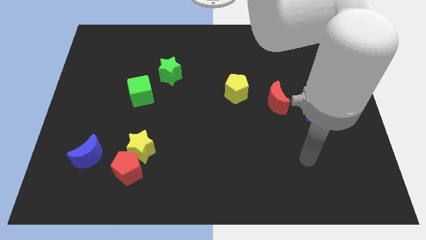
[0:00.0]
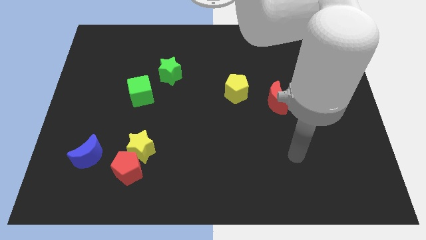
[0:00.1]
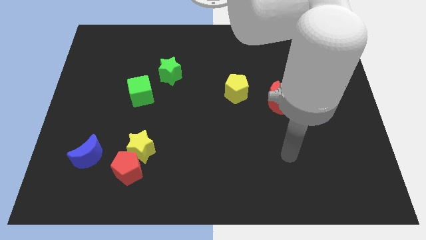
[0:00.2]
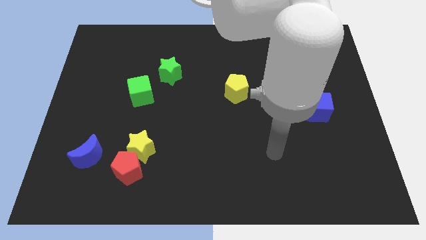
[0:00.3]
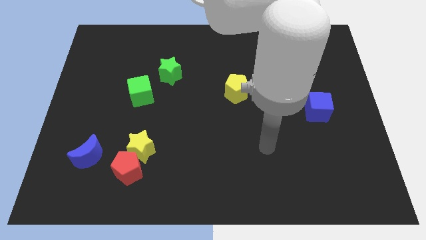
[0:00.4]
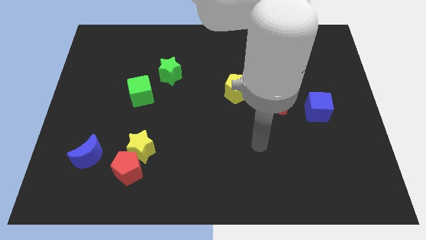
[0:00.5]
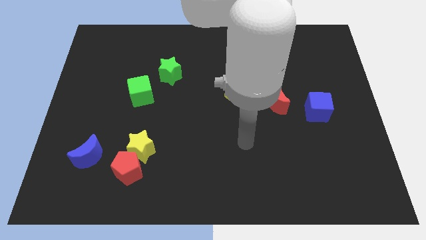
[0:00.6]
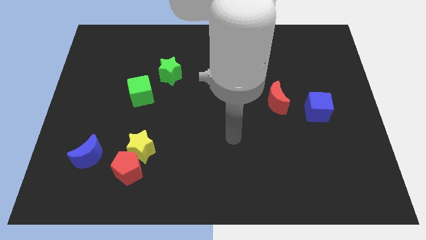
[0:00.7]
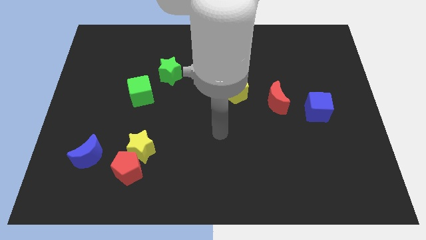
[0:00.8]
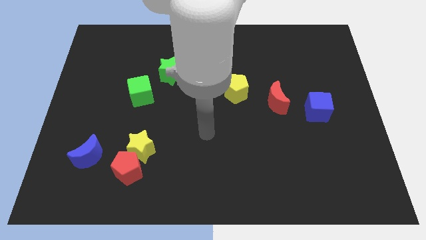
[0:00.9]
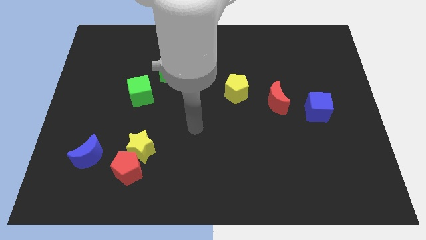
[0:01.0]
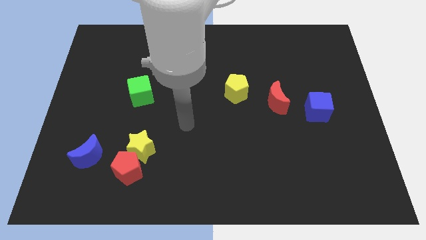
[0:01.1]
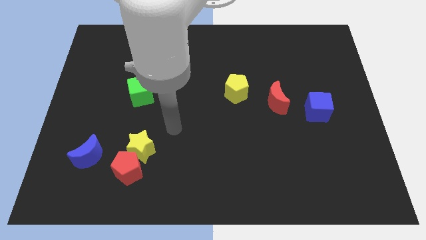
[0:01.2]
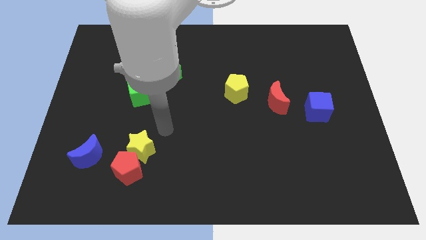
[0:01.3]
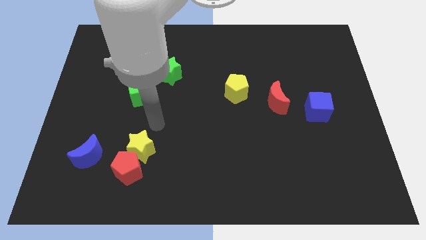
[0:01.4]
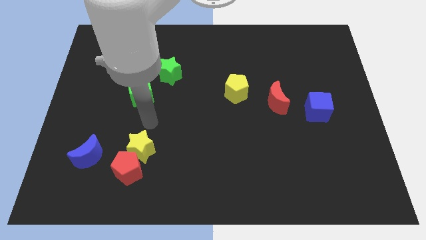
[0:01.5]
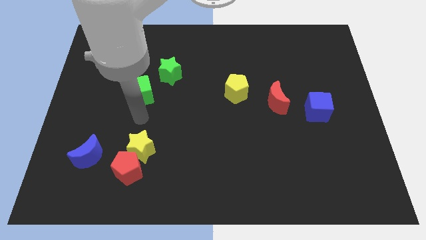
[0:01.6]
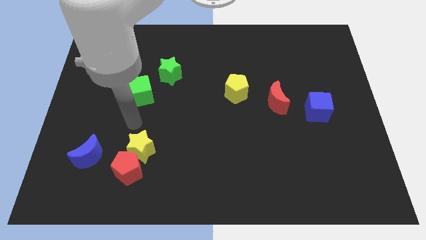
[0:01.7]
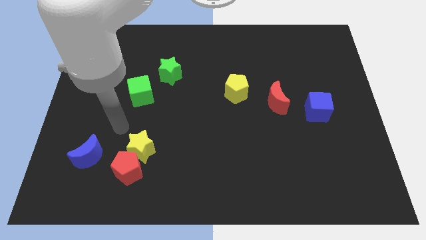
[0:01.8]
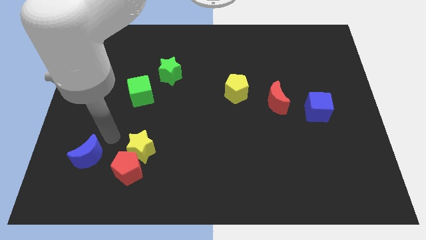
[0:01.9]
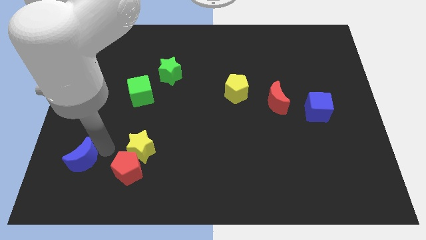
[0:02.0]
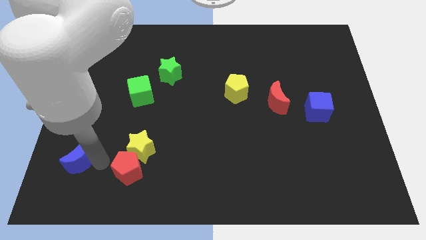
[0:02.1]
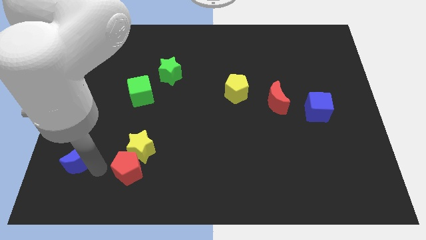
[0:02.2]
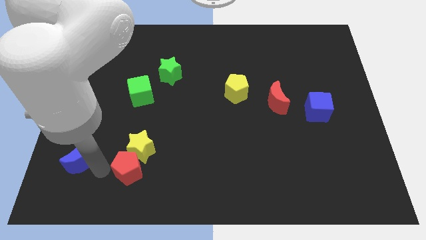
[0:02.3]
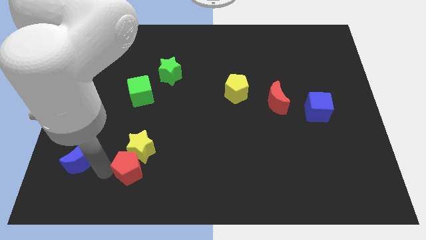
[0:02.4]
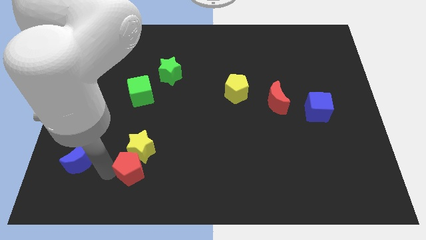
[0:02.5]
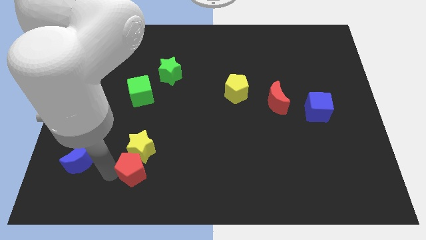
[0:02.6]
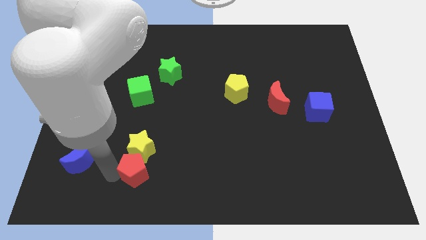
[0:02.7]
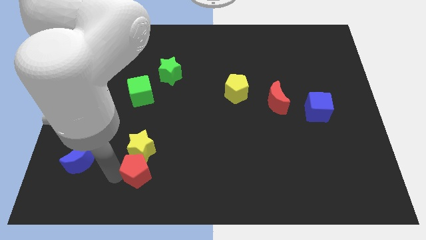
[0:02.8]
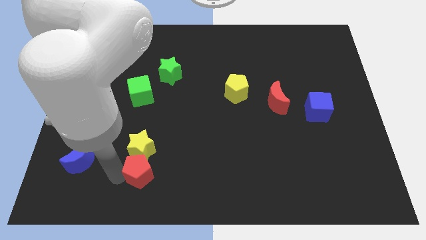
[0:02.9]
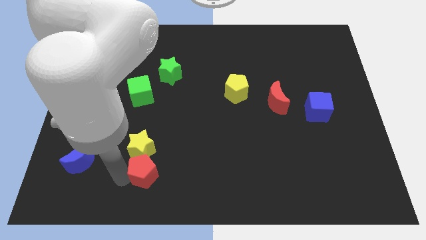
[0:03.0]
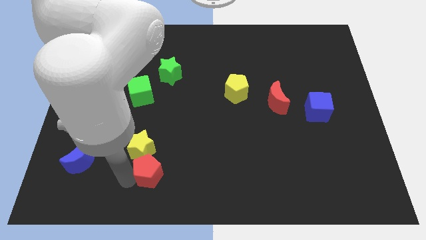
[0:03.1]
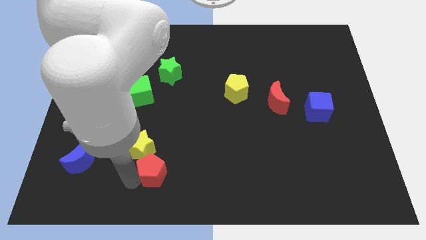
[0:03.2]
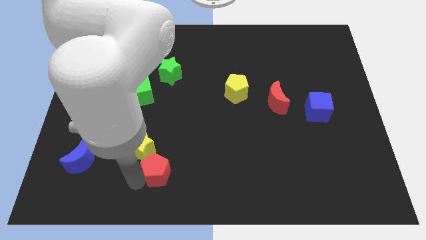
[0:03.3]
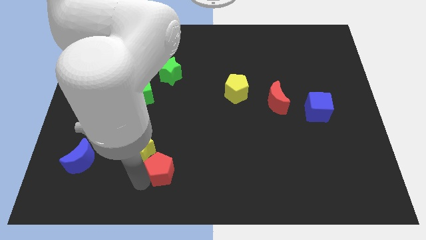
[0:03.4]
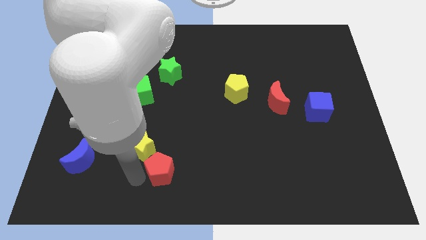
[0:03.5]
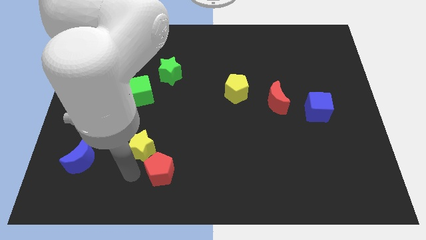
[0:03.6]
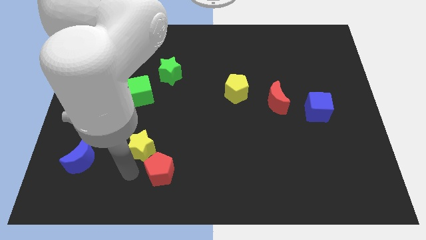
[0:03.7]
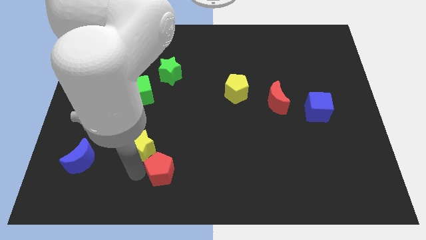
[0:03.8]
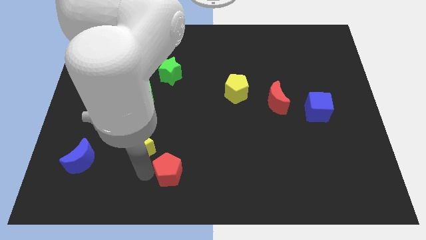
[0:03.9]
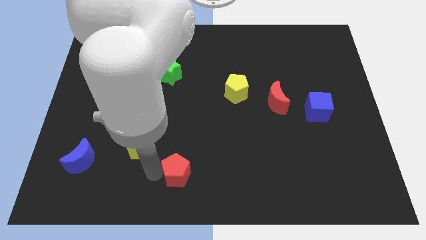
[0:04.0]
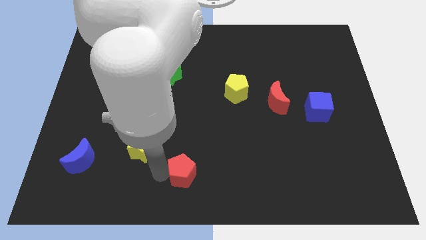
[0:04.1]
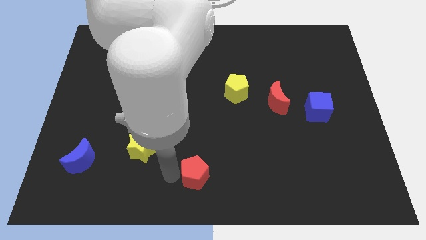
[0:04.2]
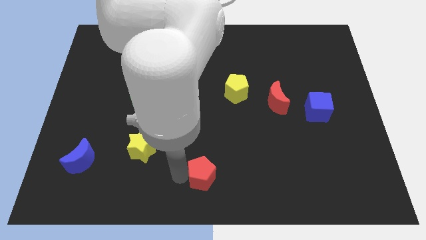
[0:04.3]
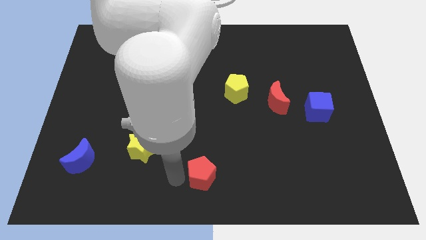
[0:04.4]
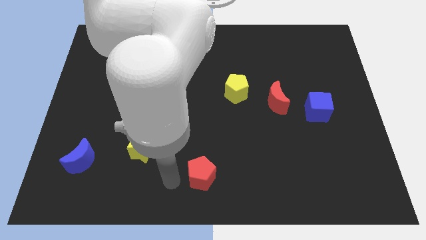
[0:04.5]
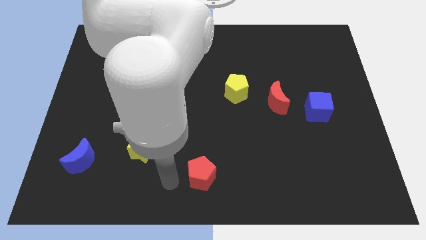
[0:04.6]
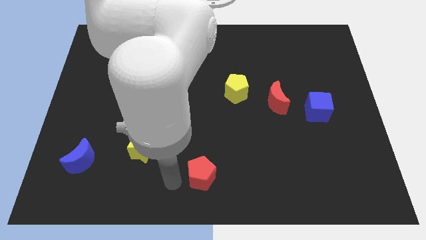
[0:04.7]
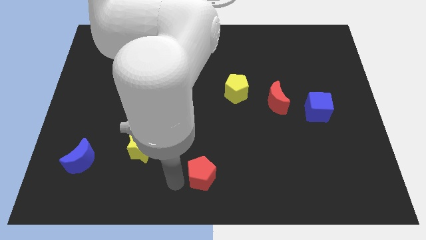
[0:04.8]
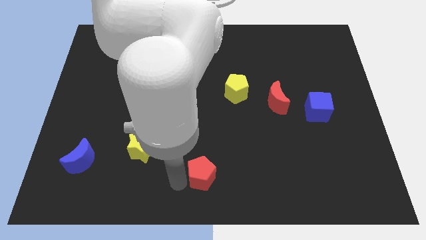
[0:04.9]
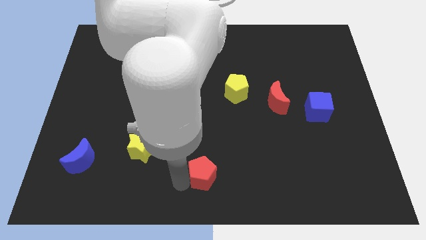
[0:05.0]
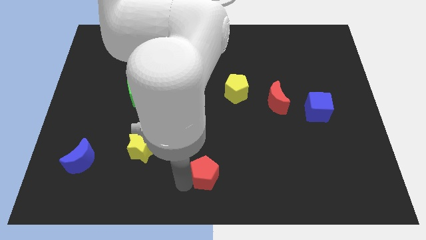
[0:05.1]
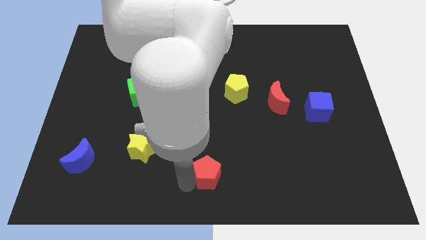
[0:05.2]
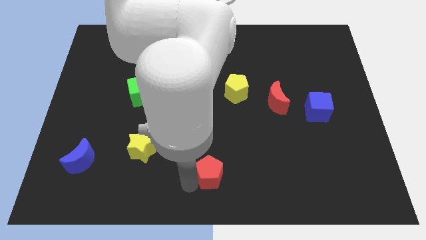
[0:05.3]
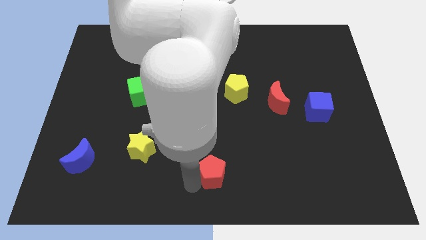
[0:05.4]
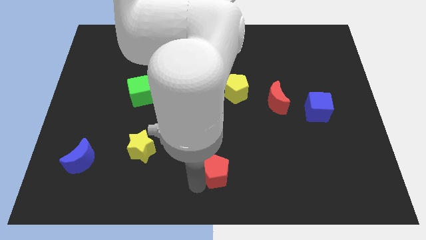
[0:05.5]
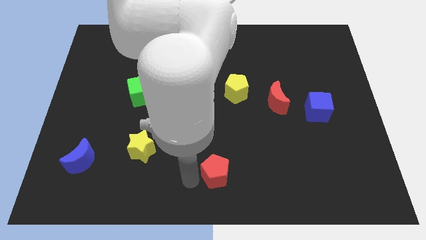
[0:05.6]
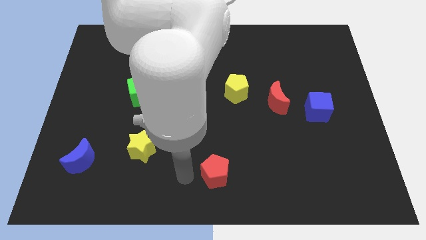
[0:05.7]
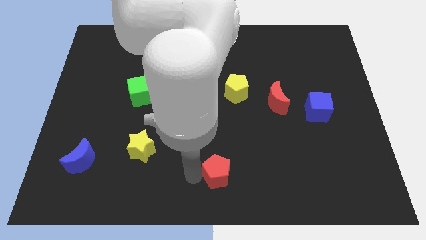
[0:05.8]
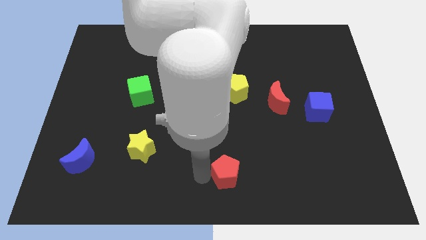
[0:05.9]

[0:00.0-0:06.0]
push the red pentagon right

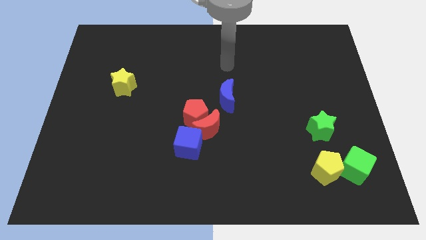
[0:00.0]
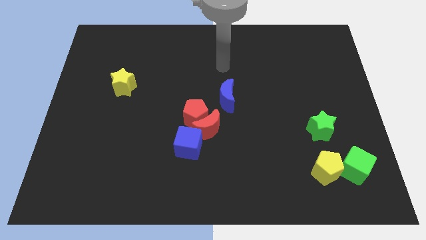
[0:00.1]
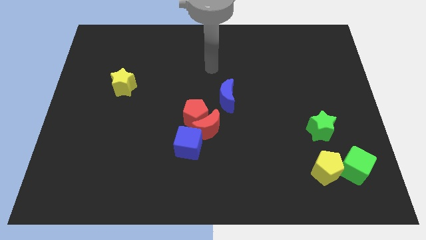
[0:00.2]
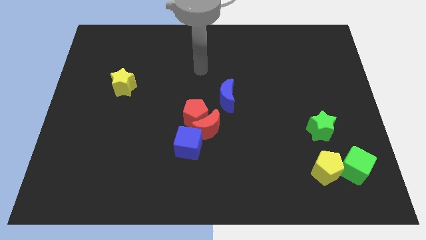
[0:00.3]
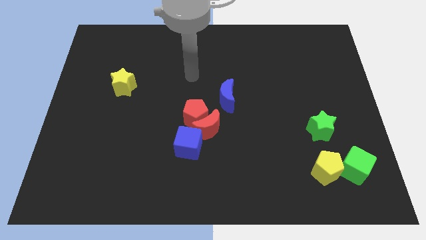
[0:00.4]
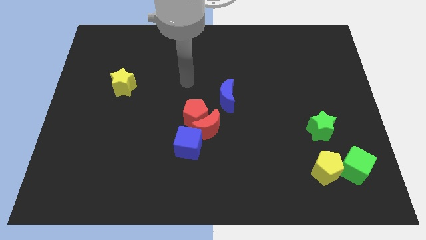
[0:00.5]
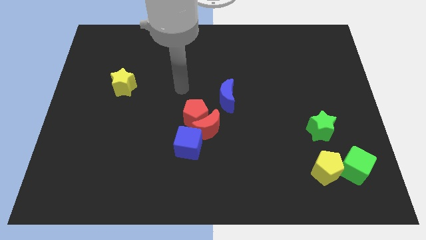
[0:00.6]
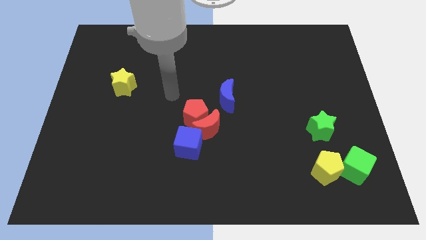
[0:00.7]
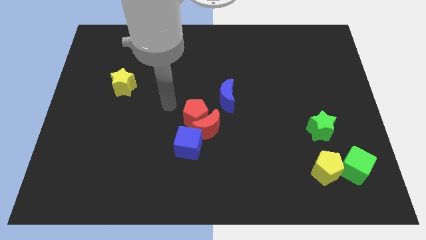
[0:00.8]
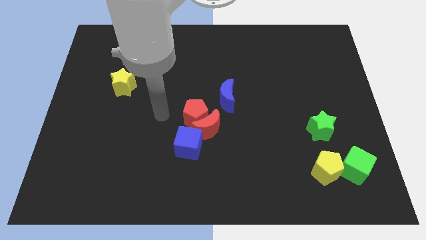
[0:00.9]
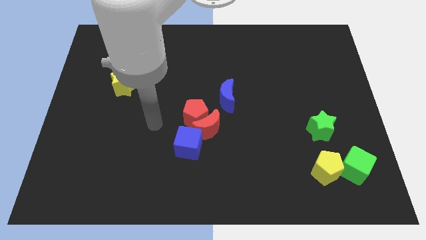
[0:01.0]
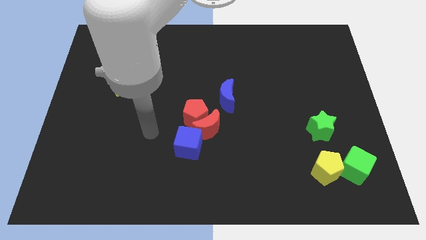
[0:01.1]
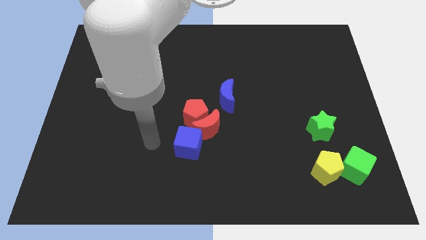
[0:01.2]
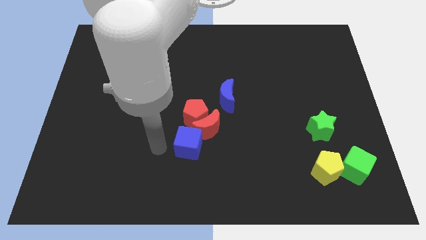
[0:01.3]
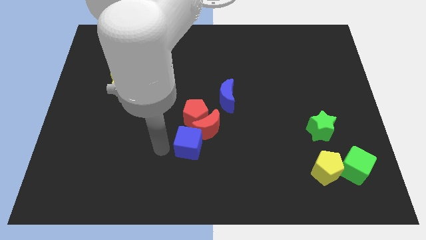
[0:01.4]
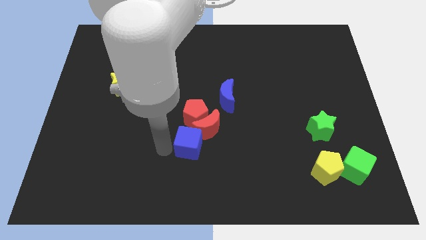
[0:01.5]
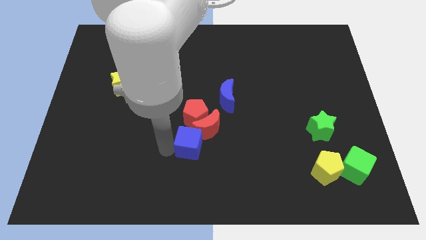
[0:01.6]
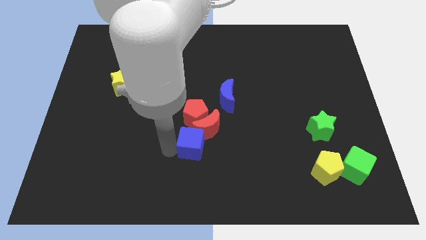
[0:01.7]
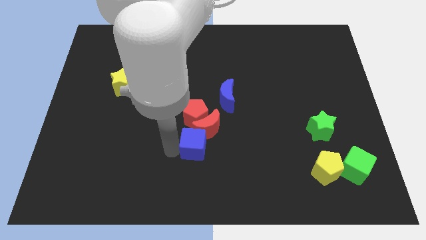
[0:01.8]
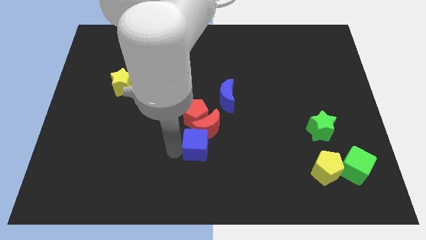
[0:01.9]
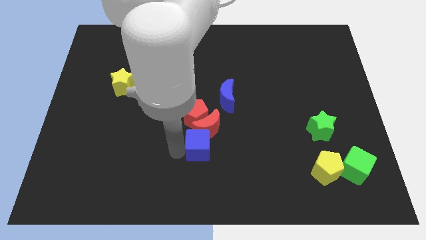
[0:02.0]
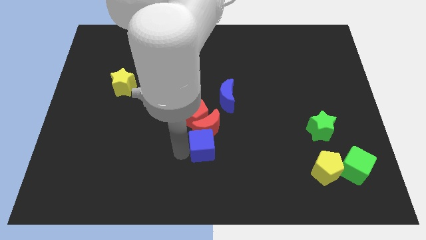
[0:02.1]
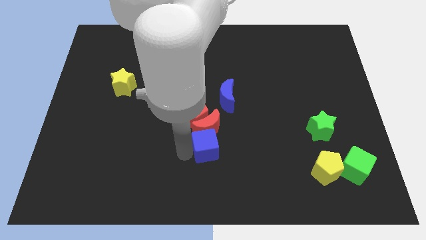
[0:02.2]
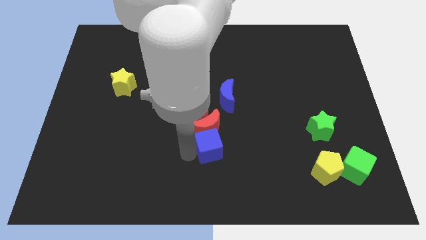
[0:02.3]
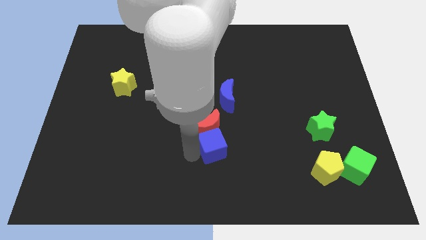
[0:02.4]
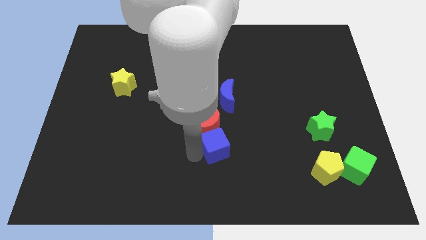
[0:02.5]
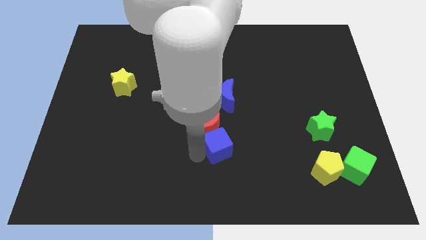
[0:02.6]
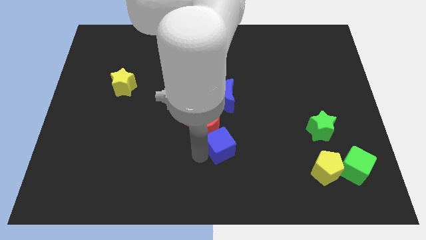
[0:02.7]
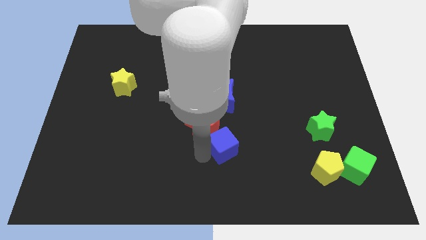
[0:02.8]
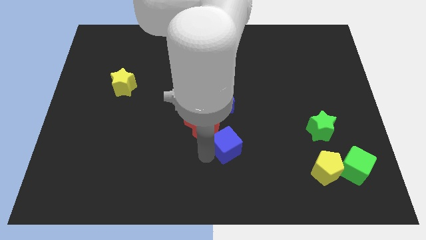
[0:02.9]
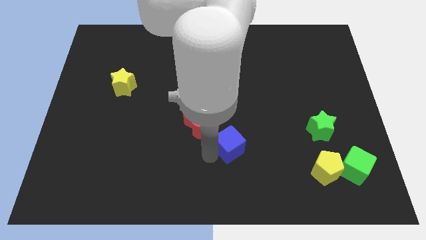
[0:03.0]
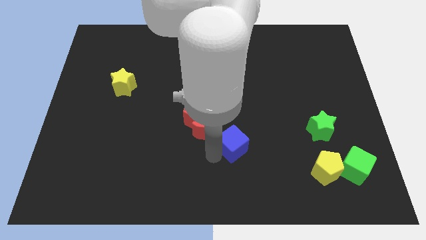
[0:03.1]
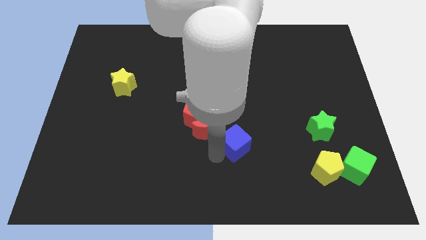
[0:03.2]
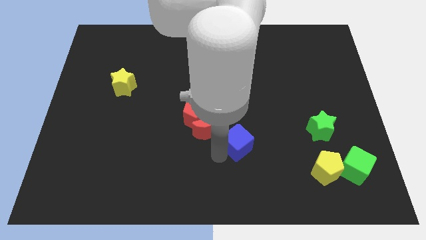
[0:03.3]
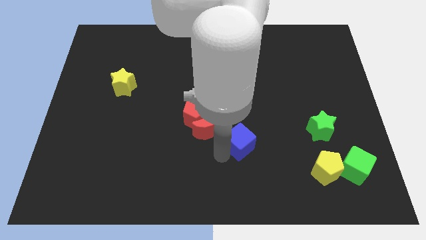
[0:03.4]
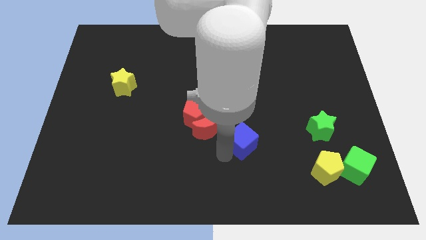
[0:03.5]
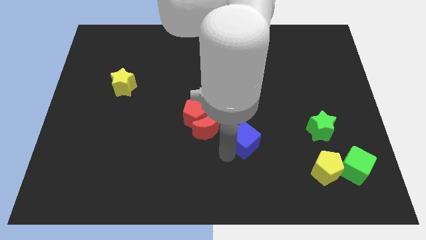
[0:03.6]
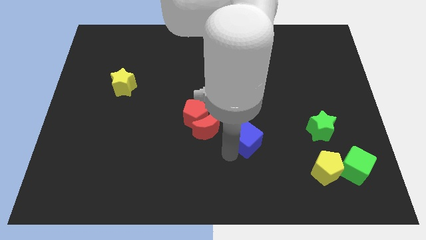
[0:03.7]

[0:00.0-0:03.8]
slide the blue cube a little upwards and to the right
